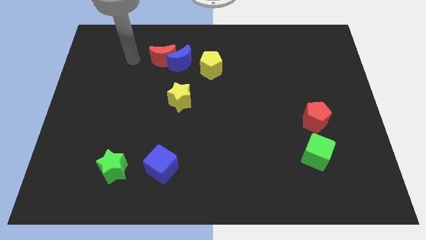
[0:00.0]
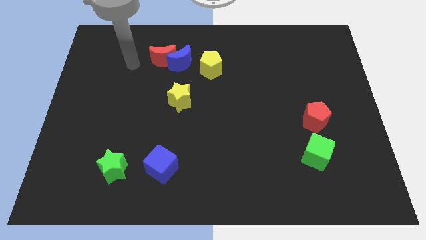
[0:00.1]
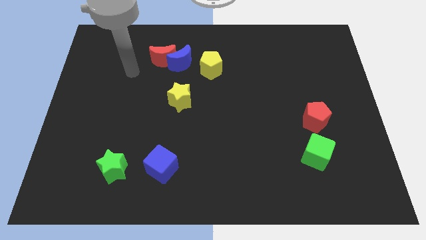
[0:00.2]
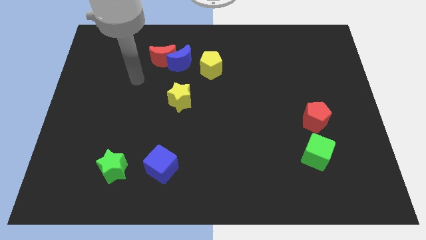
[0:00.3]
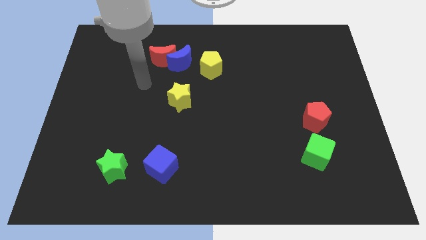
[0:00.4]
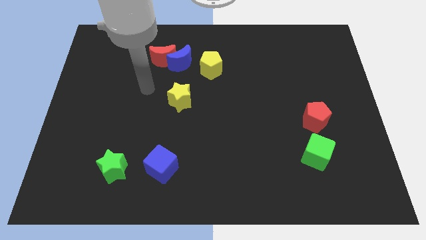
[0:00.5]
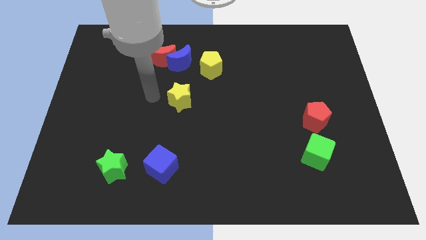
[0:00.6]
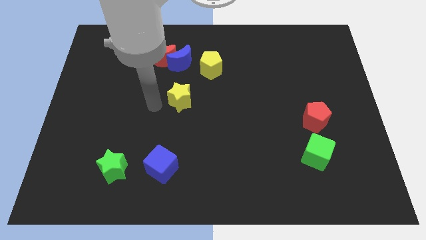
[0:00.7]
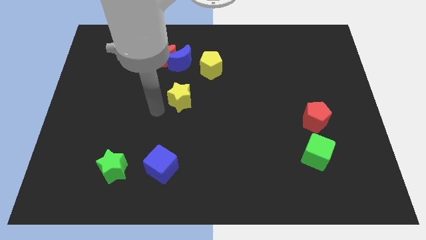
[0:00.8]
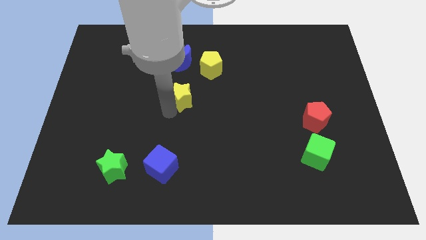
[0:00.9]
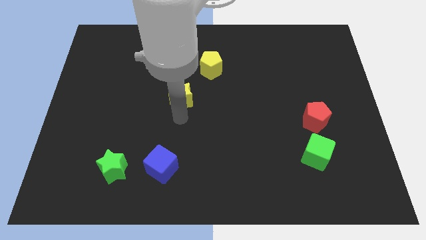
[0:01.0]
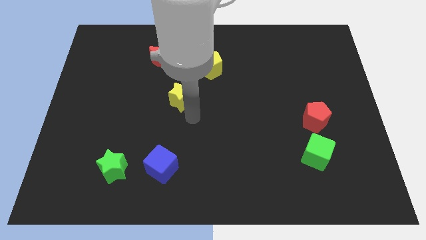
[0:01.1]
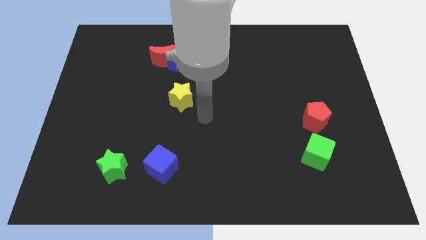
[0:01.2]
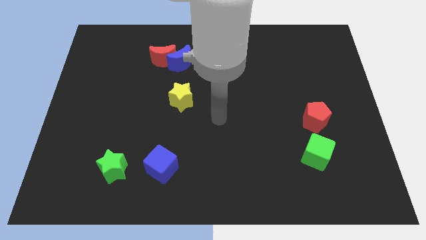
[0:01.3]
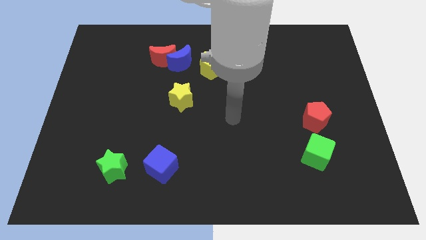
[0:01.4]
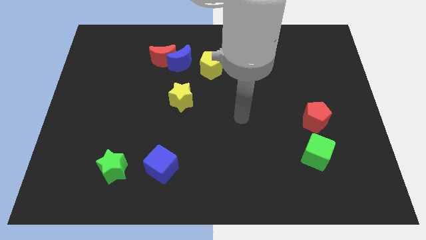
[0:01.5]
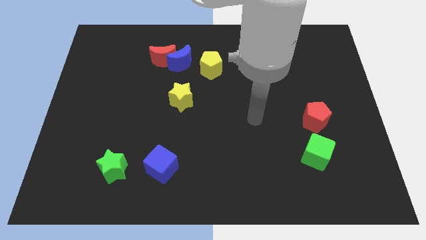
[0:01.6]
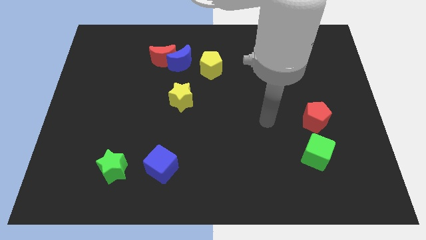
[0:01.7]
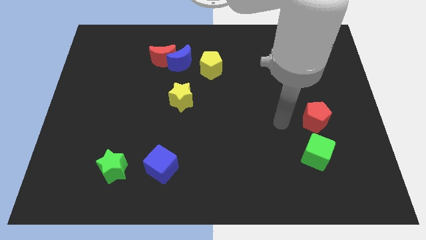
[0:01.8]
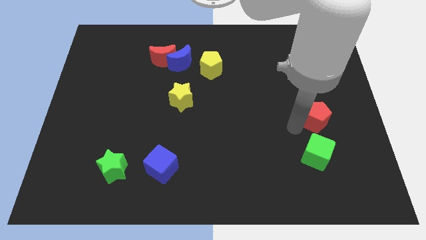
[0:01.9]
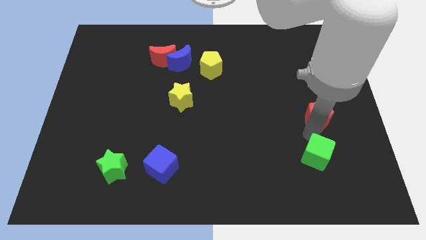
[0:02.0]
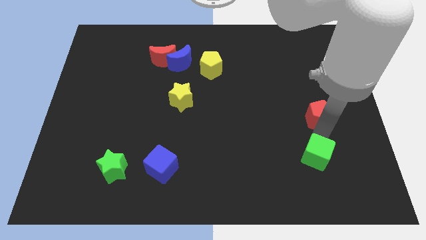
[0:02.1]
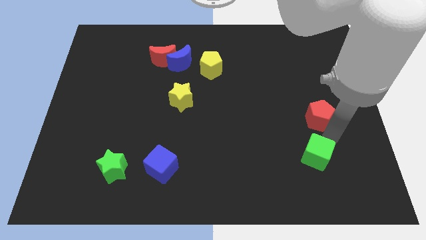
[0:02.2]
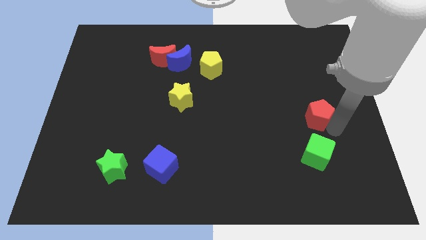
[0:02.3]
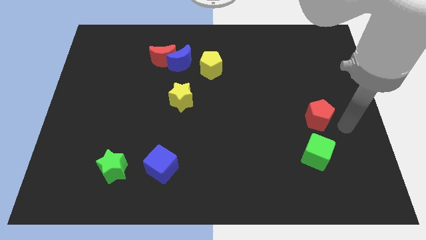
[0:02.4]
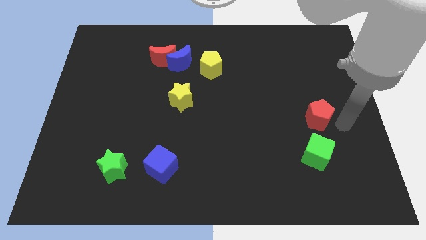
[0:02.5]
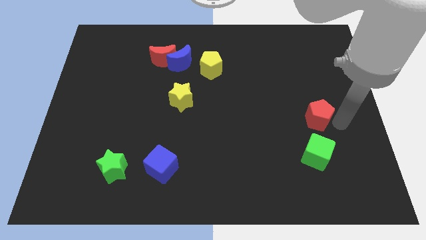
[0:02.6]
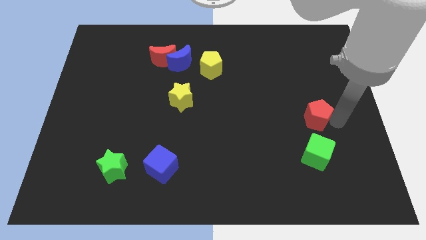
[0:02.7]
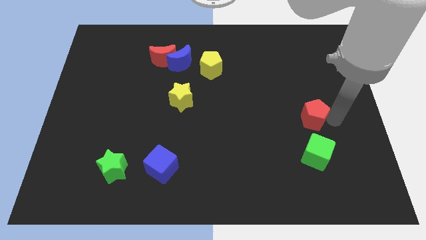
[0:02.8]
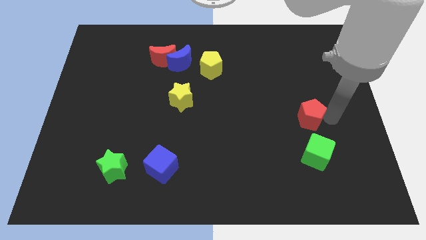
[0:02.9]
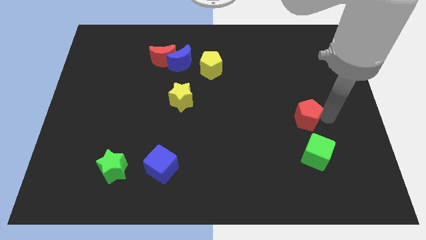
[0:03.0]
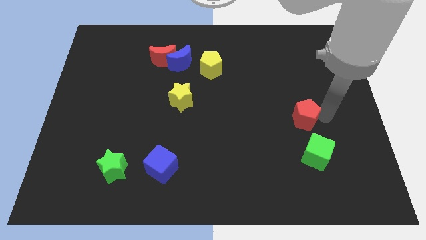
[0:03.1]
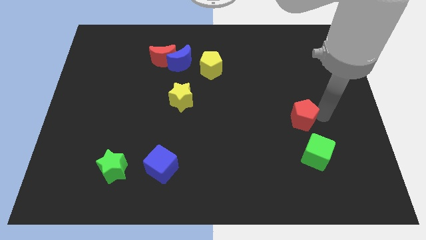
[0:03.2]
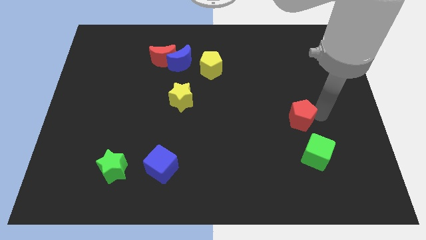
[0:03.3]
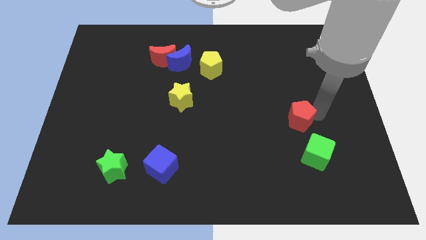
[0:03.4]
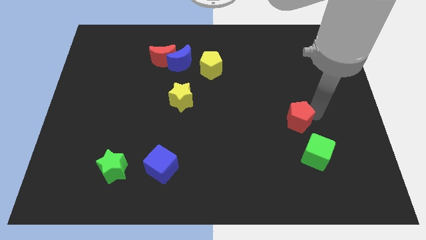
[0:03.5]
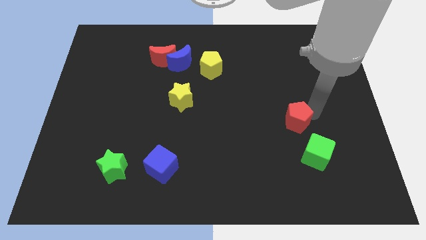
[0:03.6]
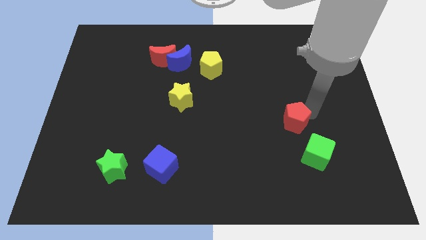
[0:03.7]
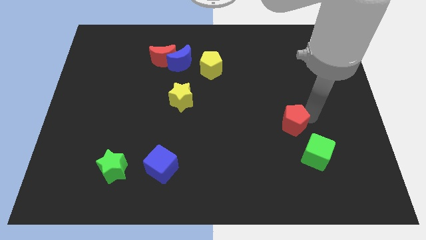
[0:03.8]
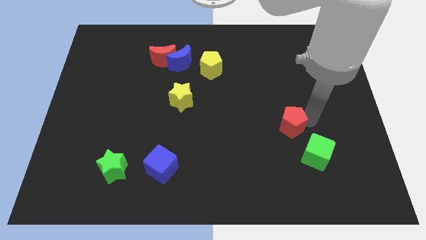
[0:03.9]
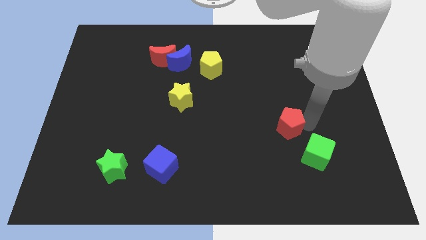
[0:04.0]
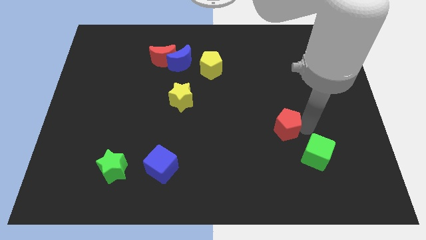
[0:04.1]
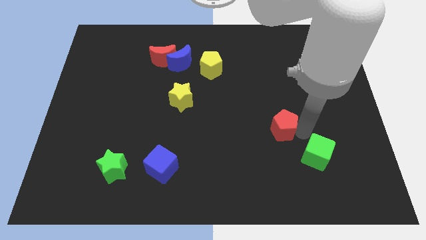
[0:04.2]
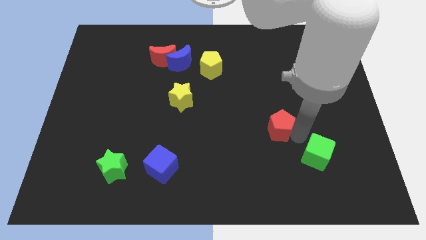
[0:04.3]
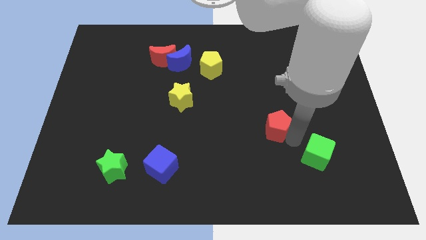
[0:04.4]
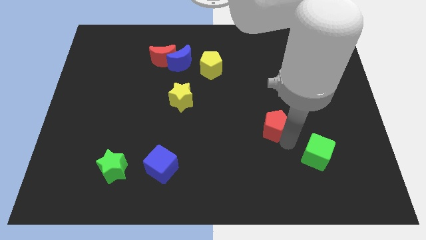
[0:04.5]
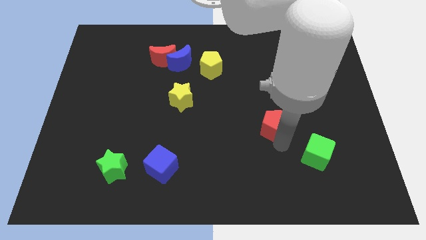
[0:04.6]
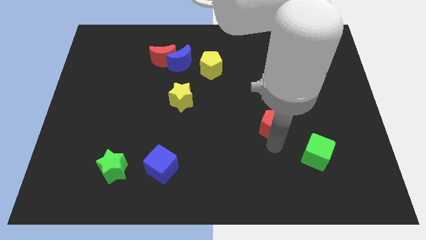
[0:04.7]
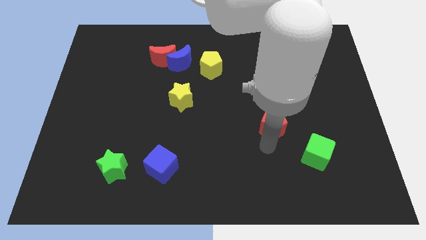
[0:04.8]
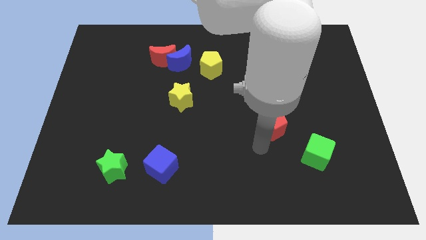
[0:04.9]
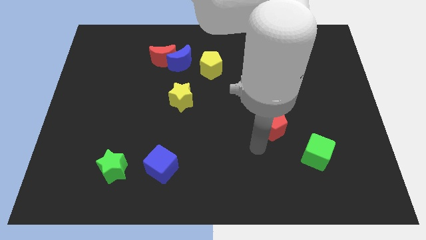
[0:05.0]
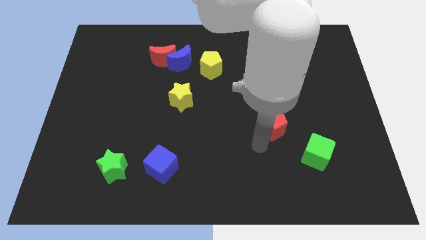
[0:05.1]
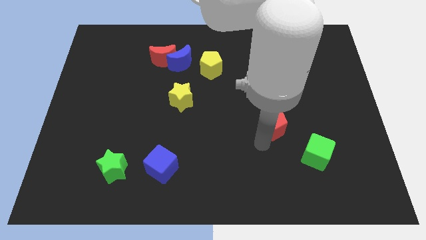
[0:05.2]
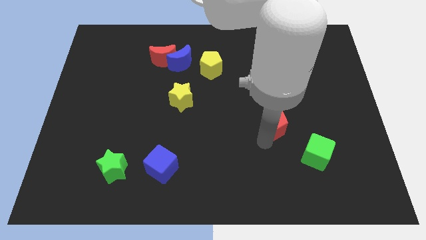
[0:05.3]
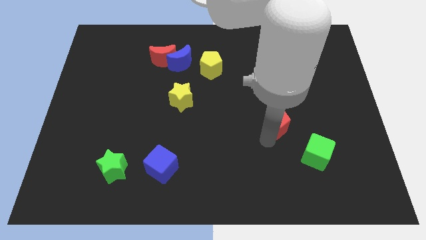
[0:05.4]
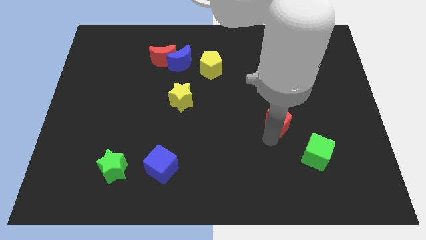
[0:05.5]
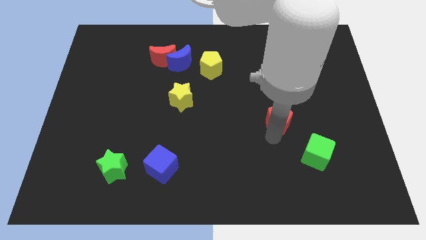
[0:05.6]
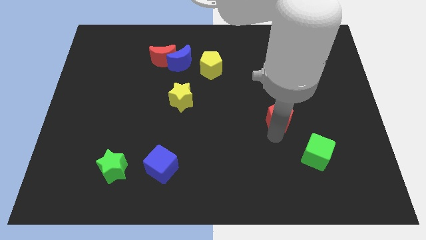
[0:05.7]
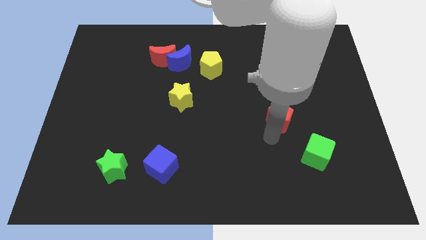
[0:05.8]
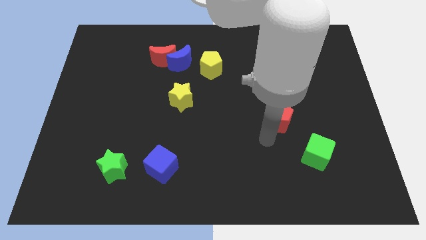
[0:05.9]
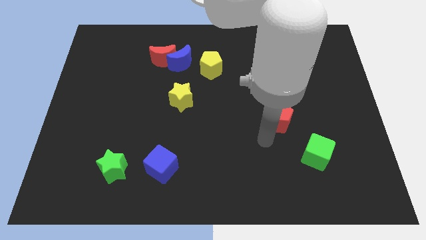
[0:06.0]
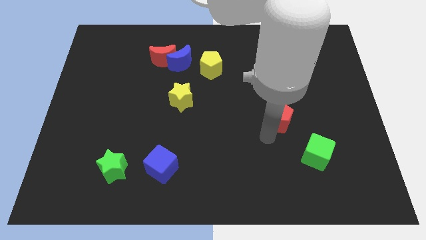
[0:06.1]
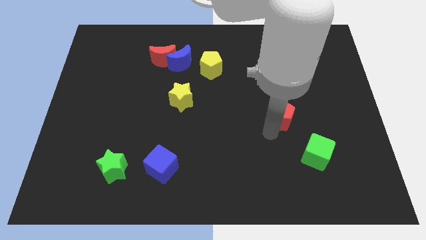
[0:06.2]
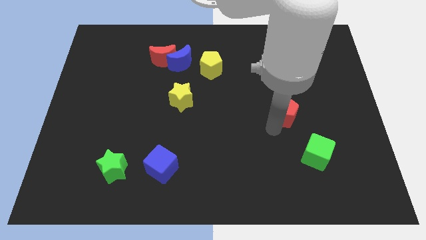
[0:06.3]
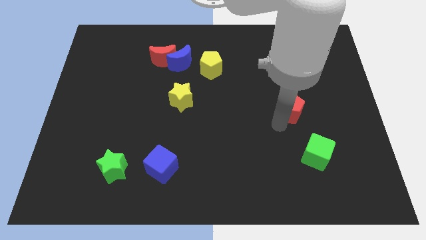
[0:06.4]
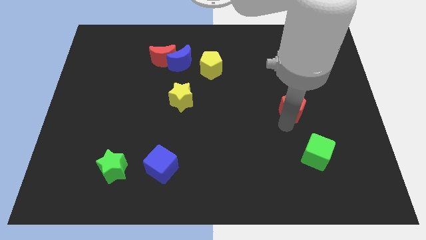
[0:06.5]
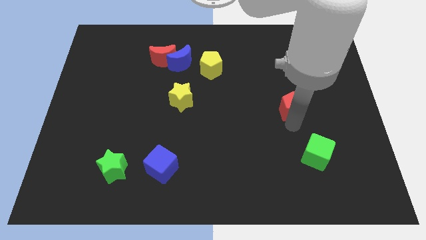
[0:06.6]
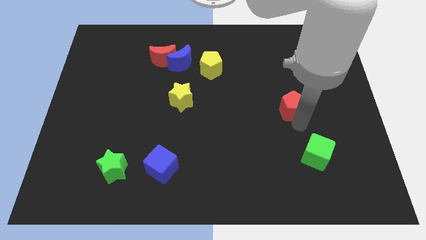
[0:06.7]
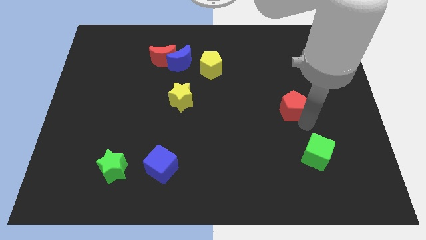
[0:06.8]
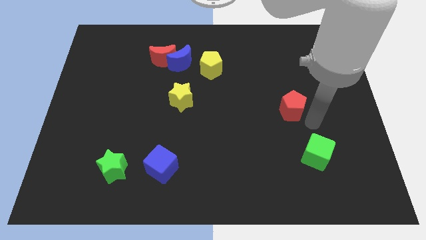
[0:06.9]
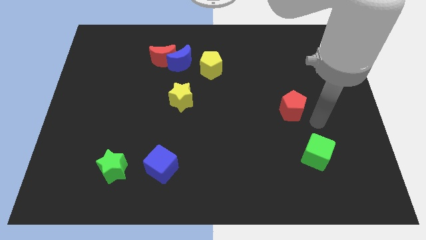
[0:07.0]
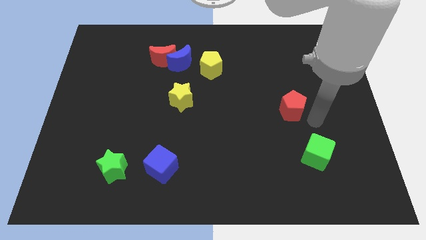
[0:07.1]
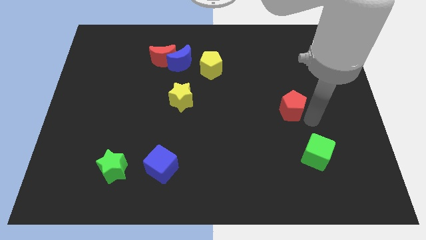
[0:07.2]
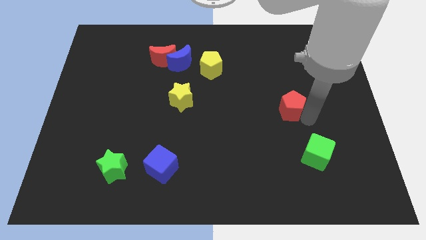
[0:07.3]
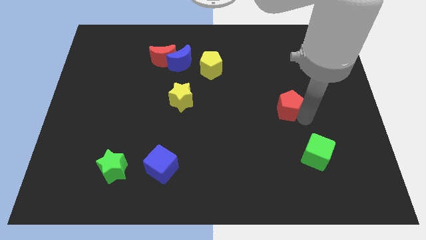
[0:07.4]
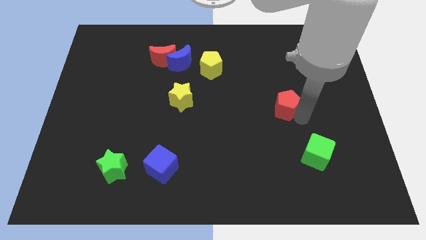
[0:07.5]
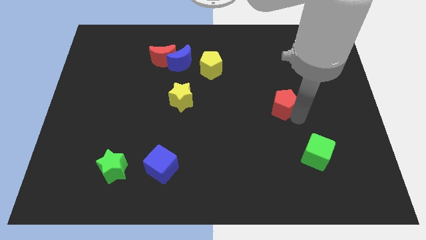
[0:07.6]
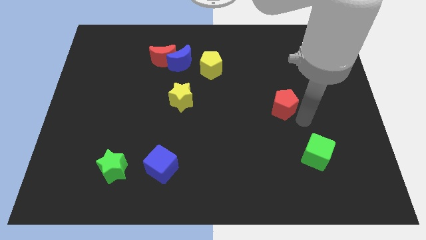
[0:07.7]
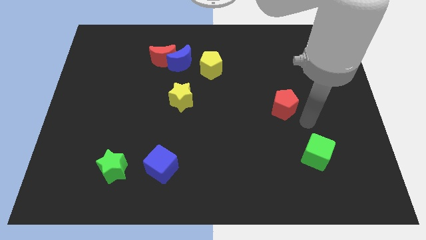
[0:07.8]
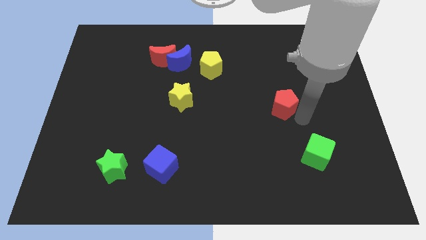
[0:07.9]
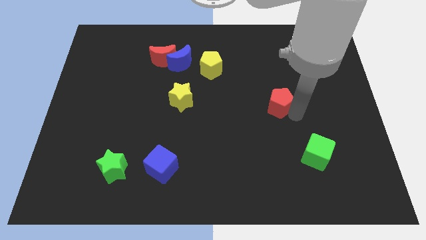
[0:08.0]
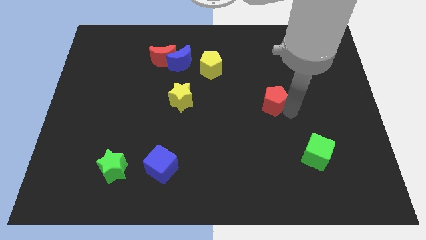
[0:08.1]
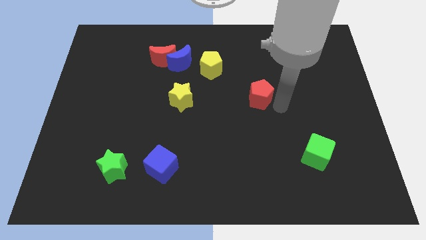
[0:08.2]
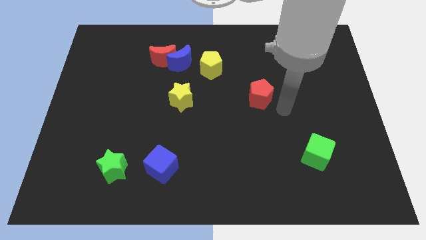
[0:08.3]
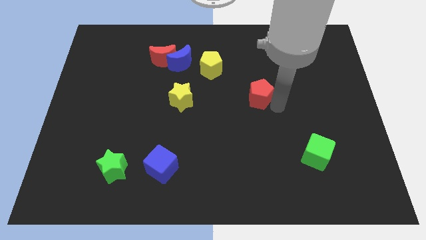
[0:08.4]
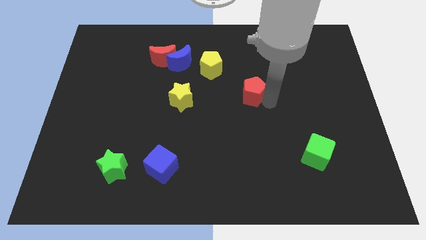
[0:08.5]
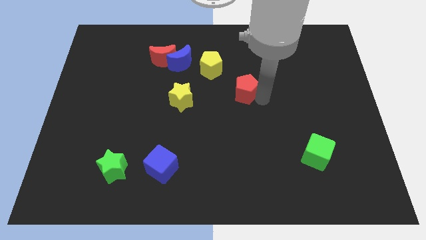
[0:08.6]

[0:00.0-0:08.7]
put the red pentagon diagonally down and to the right of the yellow pentagon
